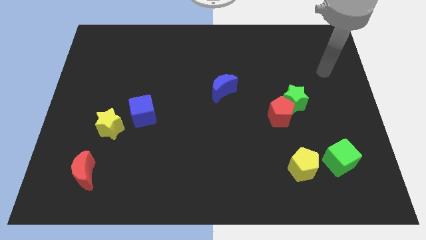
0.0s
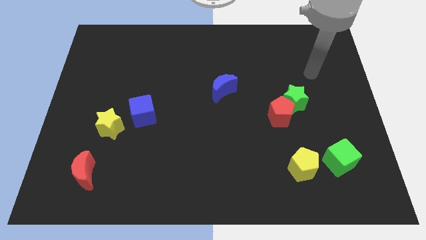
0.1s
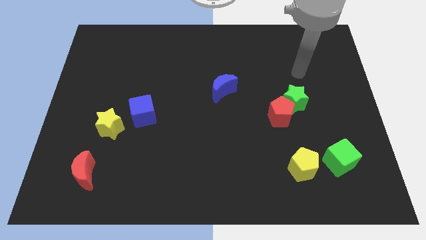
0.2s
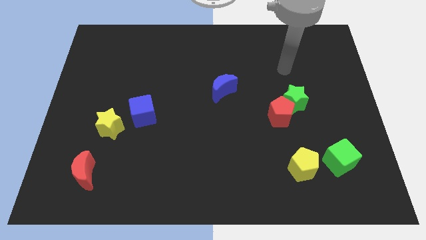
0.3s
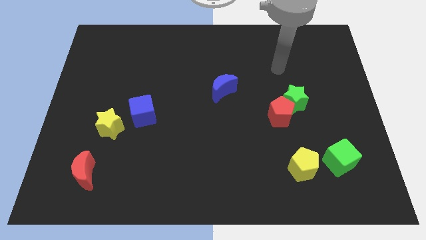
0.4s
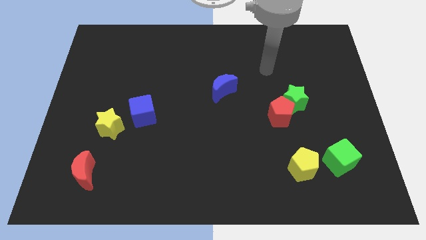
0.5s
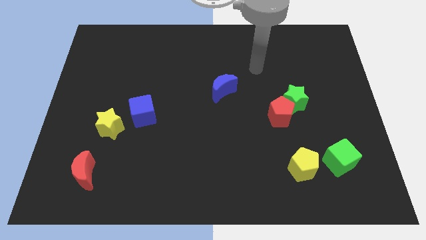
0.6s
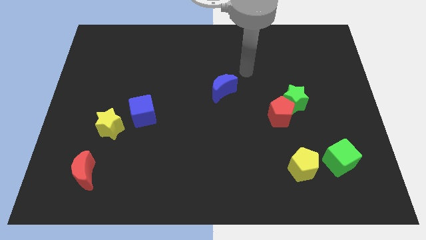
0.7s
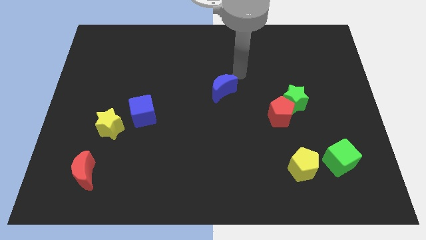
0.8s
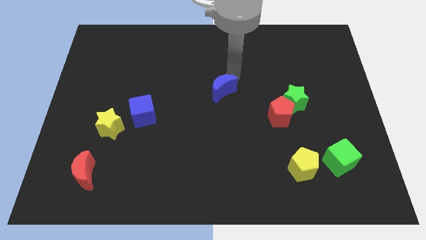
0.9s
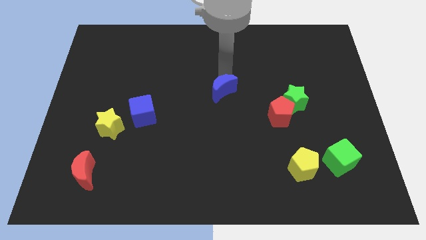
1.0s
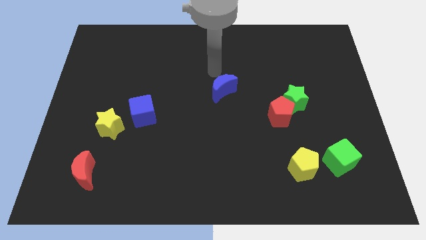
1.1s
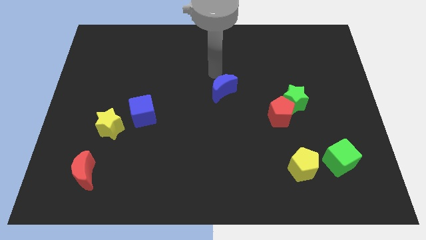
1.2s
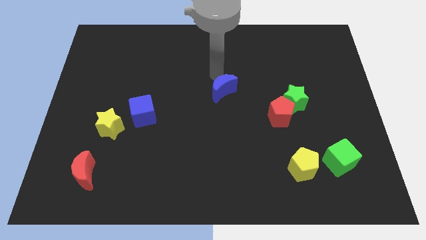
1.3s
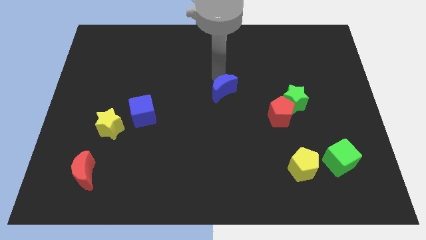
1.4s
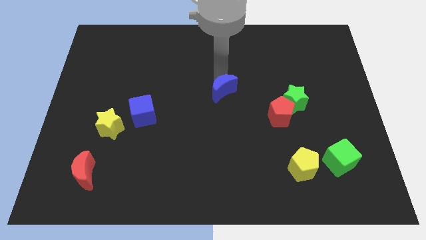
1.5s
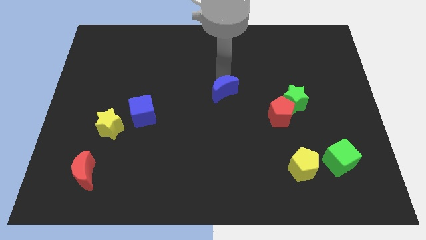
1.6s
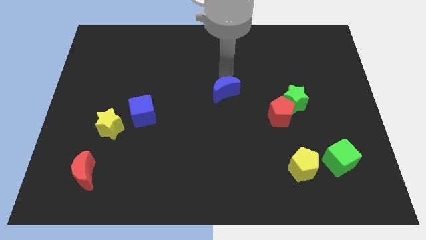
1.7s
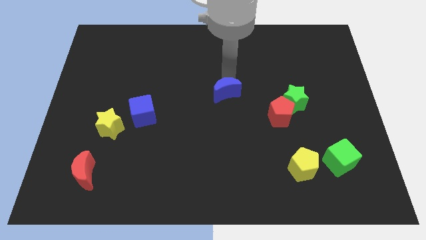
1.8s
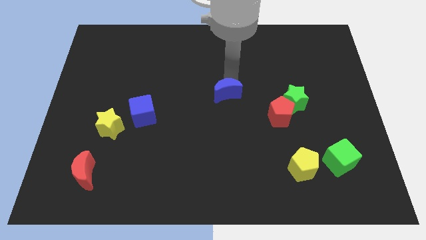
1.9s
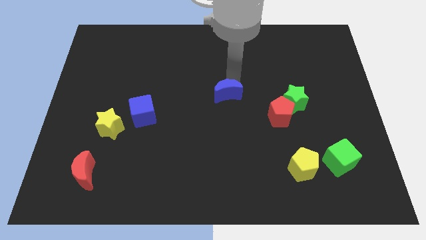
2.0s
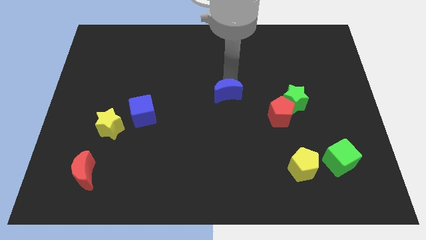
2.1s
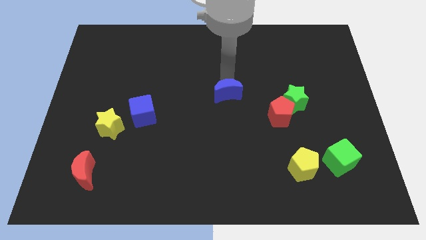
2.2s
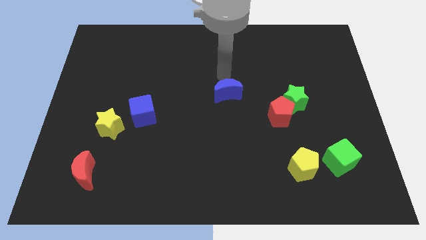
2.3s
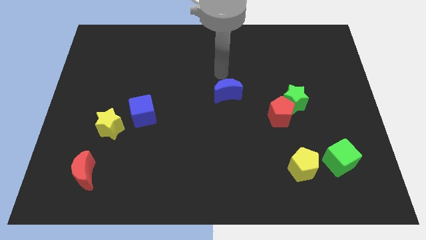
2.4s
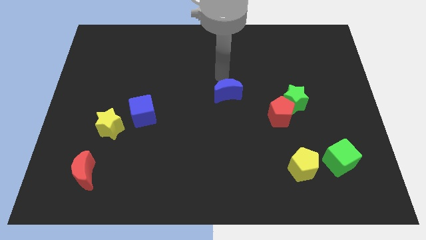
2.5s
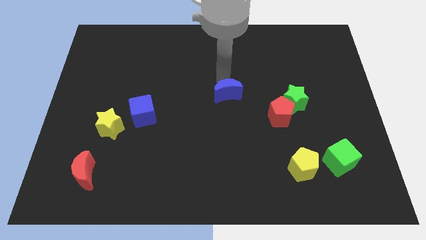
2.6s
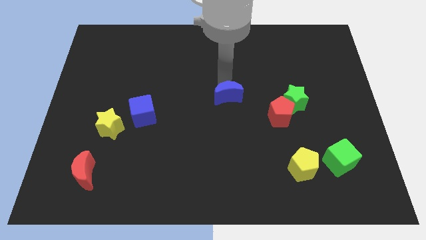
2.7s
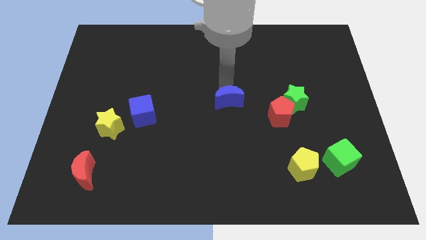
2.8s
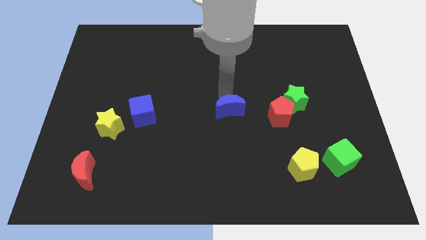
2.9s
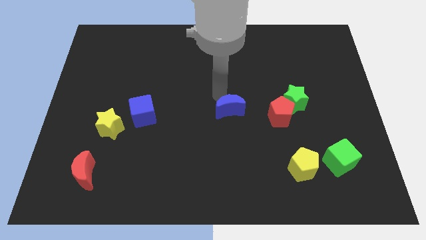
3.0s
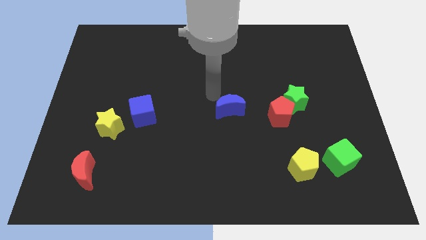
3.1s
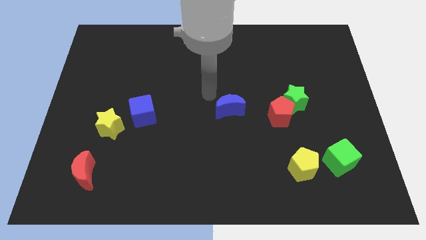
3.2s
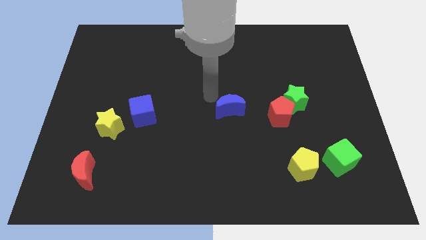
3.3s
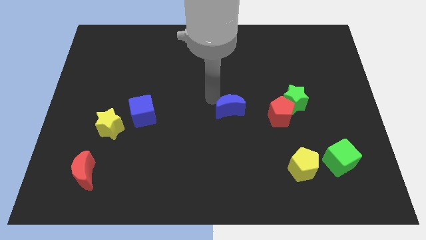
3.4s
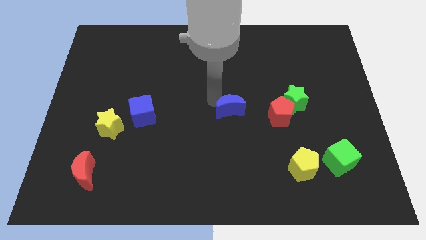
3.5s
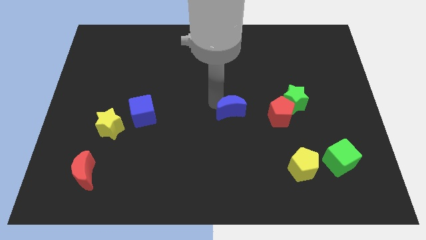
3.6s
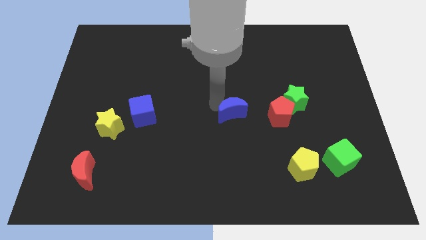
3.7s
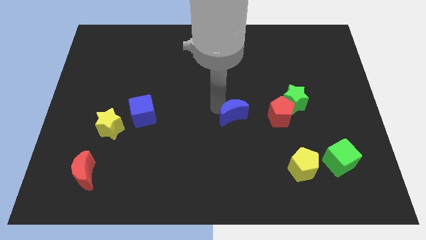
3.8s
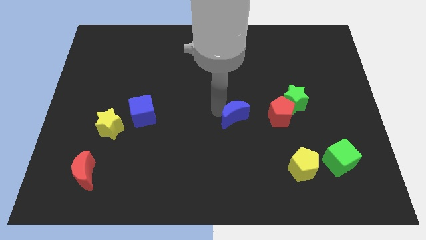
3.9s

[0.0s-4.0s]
push the blue moon diagonally downwards and to the right somewhat

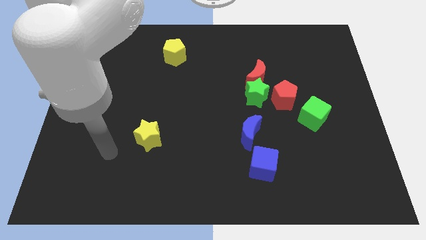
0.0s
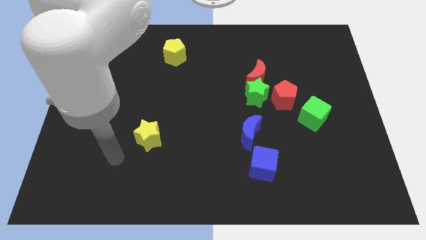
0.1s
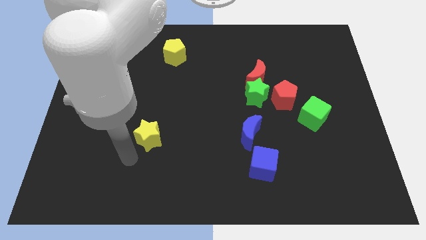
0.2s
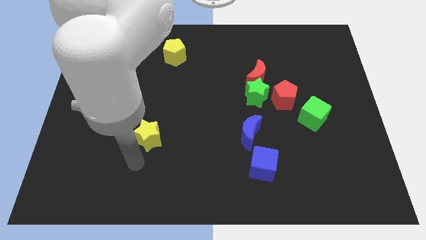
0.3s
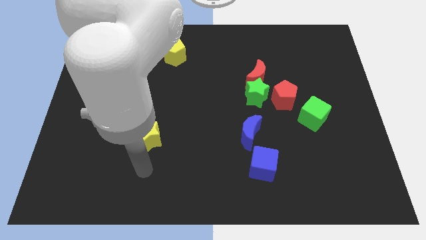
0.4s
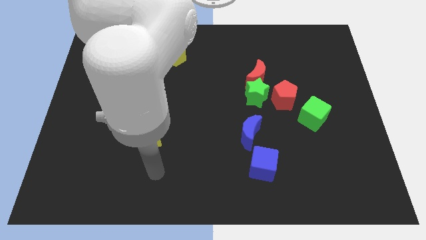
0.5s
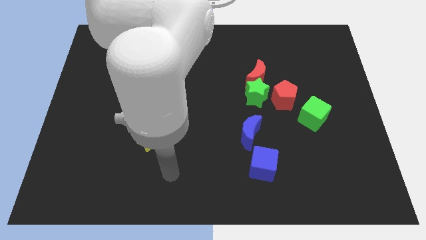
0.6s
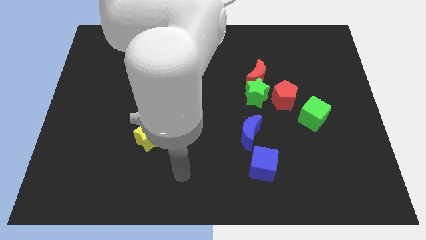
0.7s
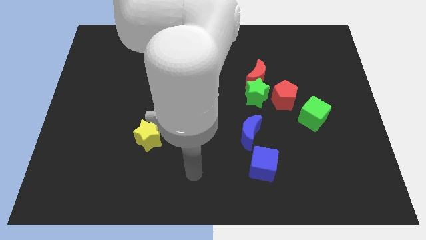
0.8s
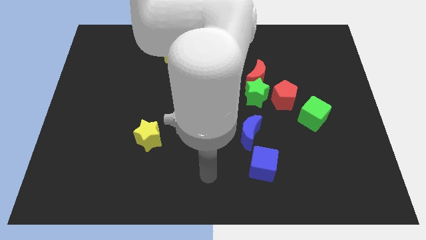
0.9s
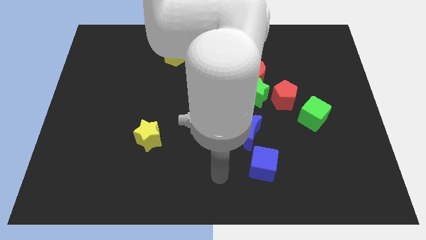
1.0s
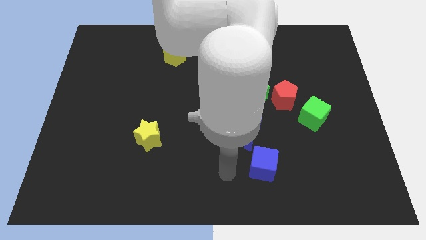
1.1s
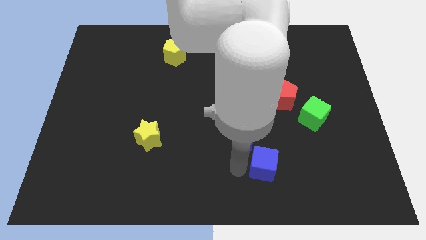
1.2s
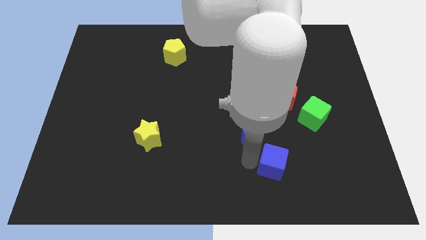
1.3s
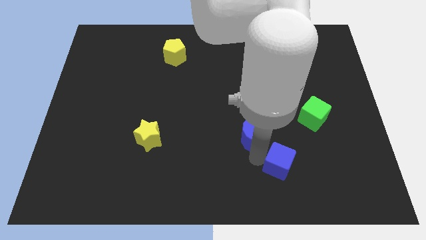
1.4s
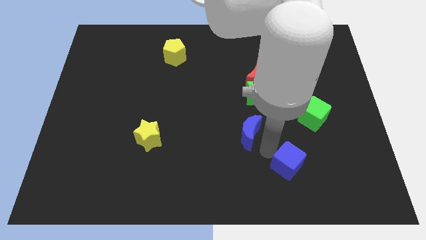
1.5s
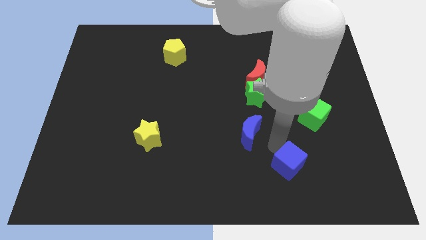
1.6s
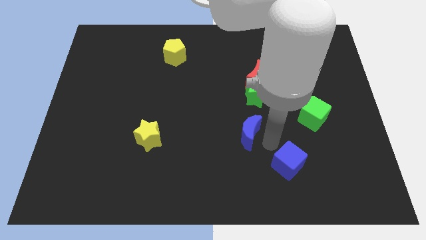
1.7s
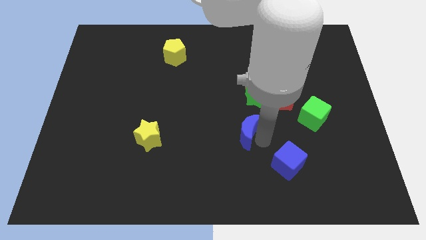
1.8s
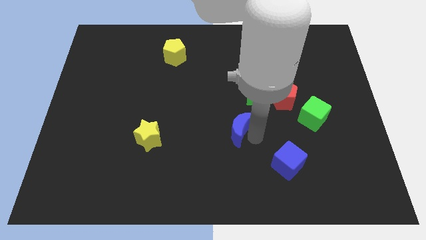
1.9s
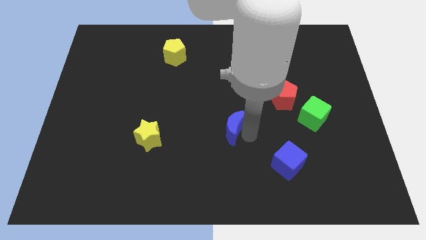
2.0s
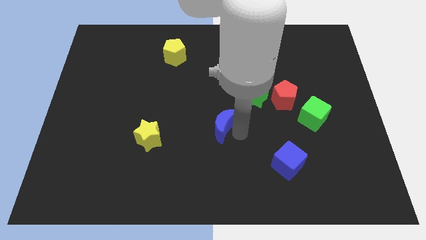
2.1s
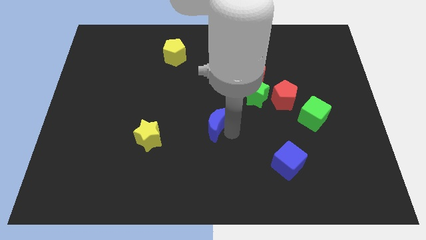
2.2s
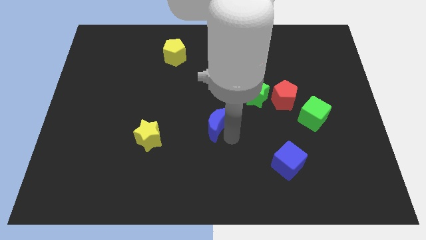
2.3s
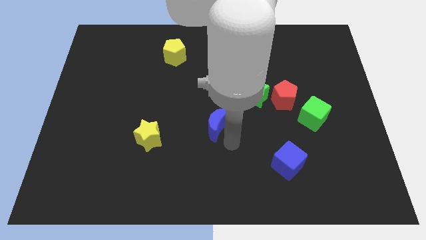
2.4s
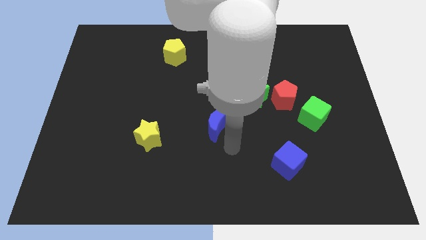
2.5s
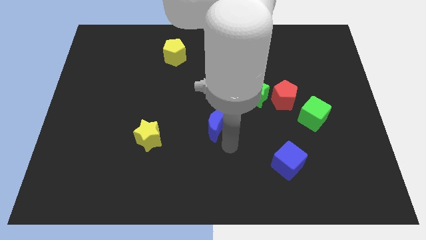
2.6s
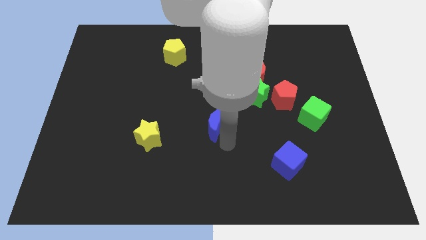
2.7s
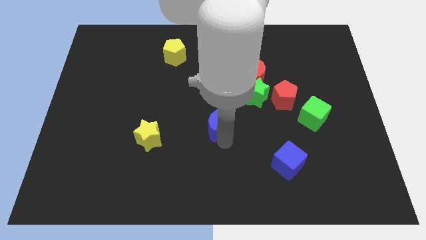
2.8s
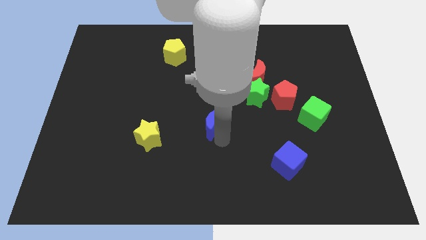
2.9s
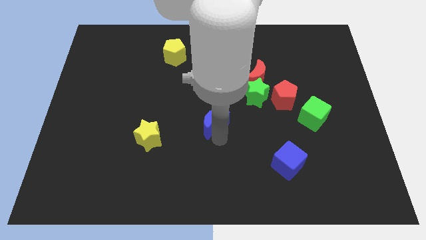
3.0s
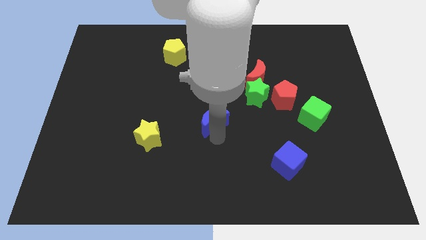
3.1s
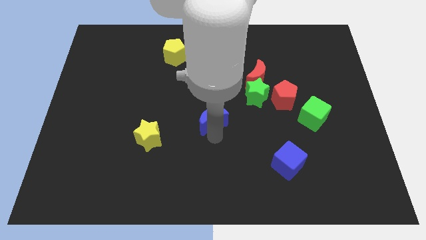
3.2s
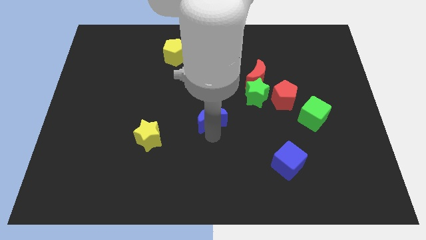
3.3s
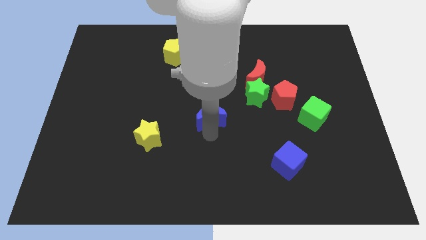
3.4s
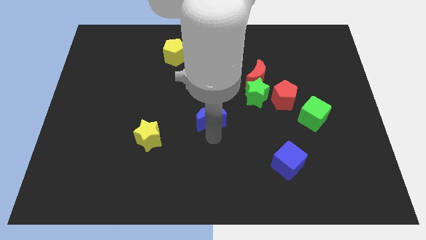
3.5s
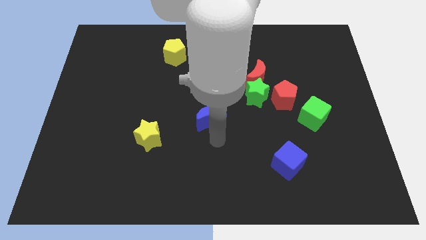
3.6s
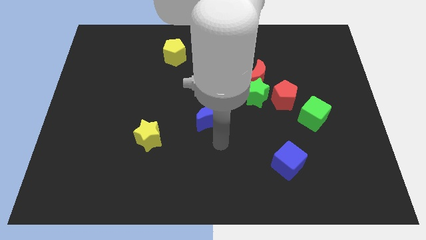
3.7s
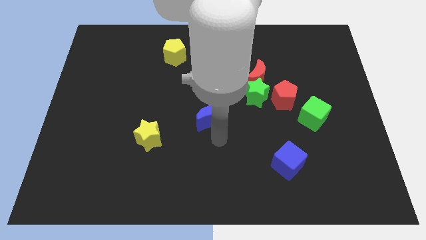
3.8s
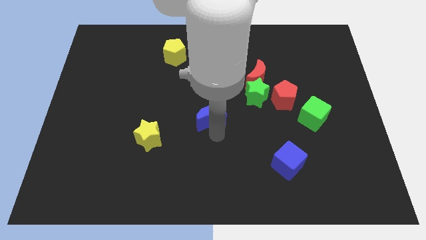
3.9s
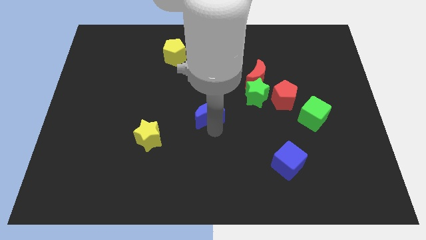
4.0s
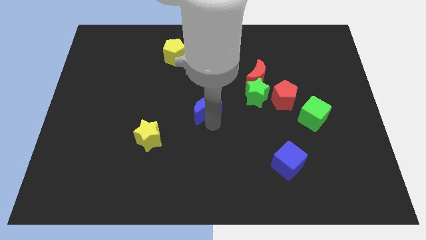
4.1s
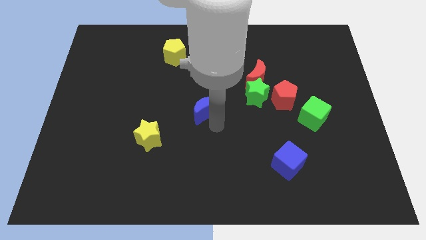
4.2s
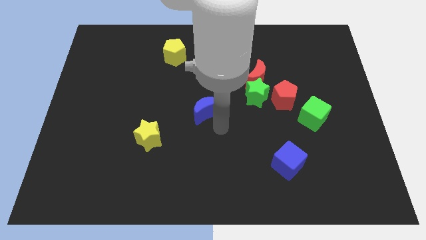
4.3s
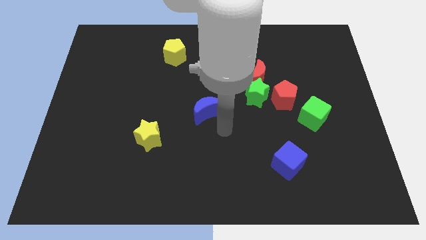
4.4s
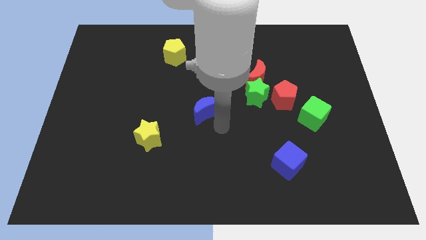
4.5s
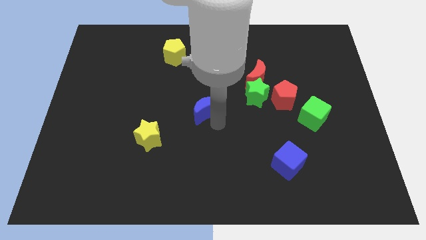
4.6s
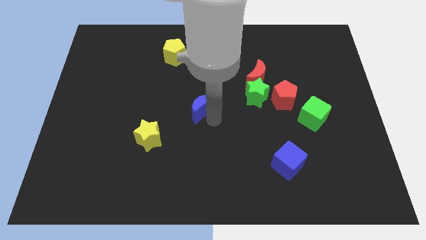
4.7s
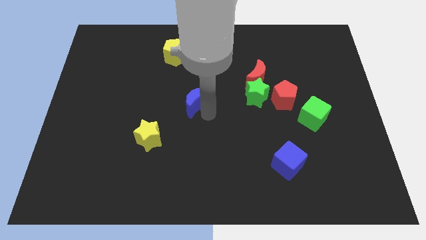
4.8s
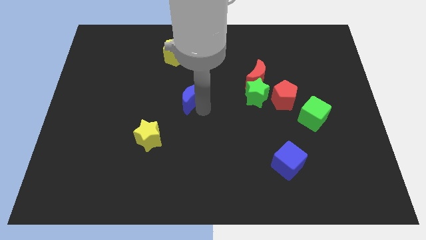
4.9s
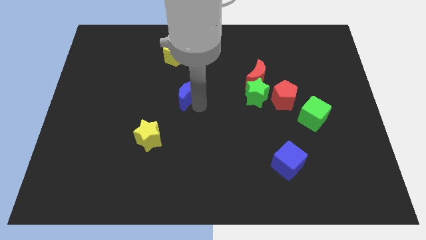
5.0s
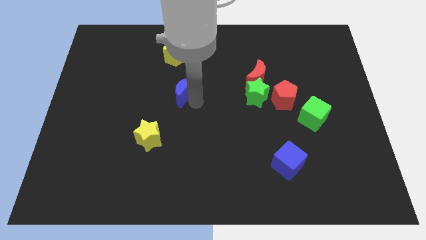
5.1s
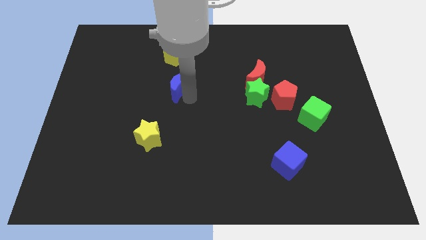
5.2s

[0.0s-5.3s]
move the blue moon up and left diagonally
